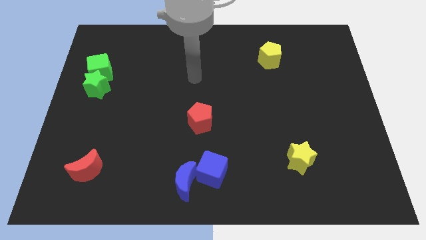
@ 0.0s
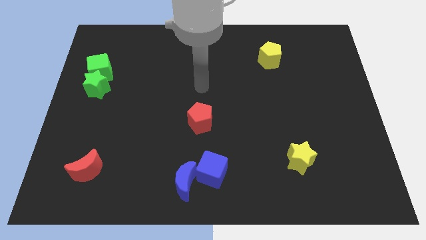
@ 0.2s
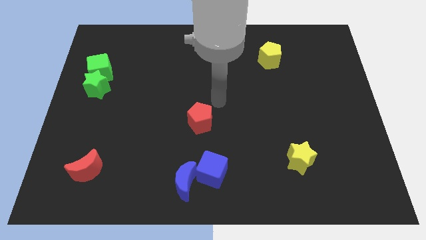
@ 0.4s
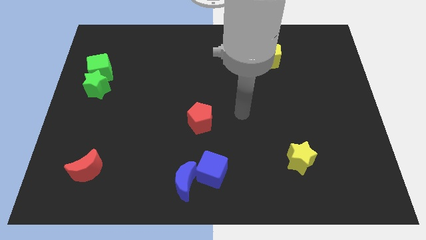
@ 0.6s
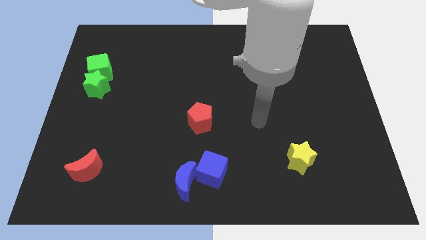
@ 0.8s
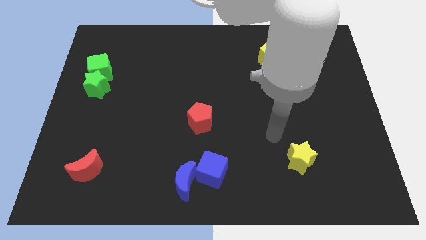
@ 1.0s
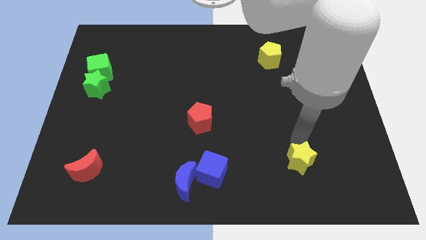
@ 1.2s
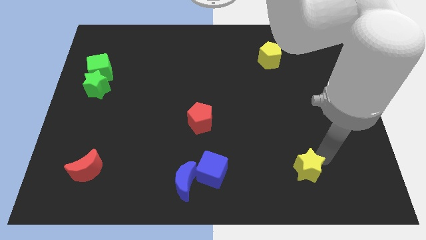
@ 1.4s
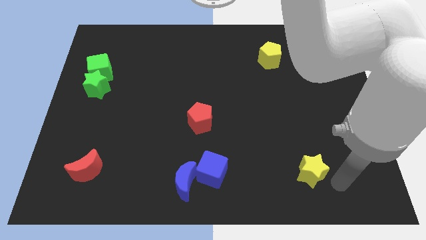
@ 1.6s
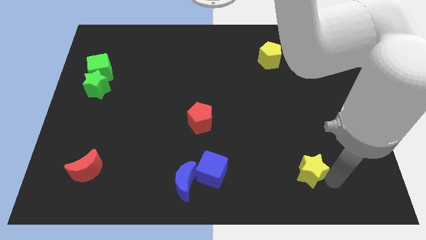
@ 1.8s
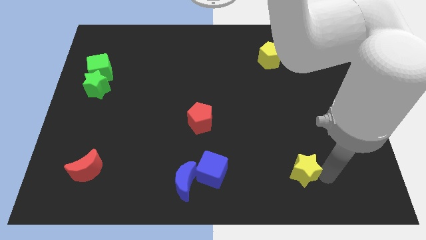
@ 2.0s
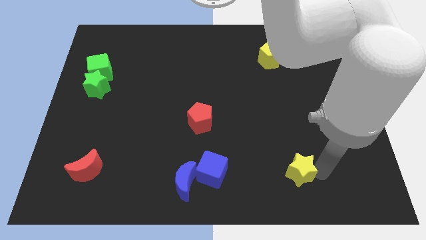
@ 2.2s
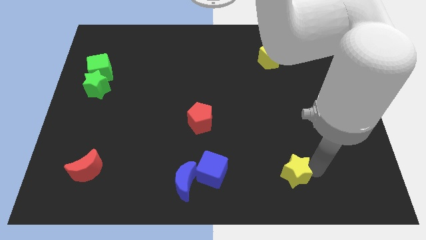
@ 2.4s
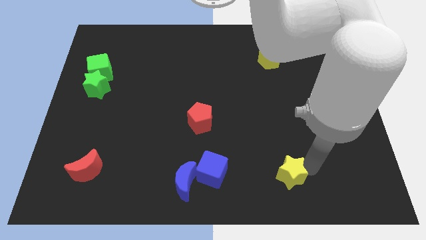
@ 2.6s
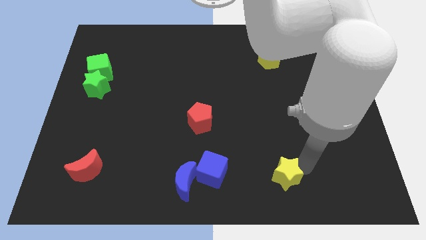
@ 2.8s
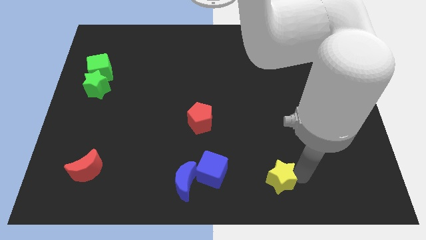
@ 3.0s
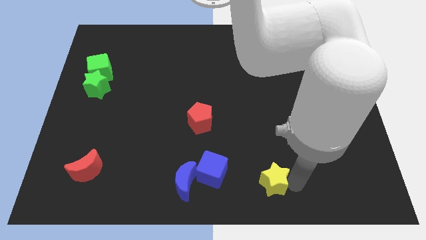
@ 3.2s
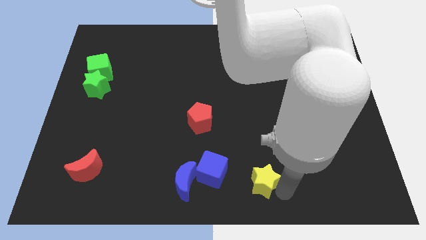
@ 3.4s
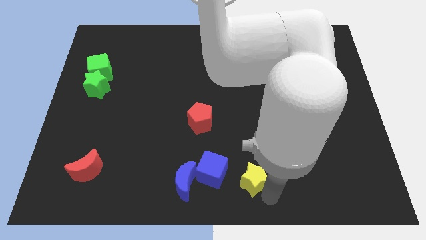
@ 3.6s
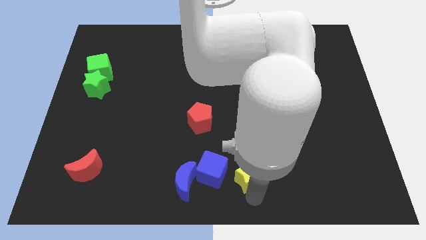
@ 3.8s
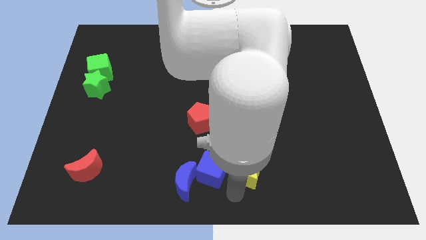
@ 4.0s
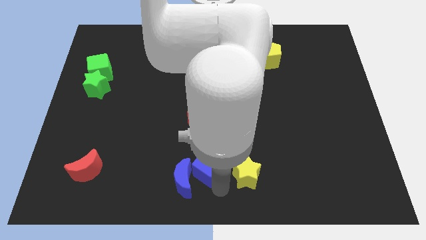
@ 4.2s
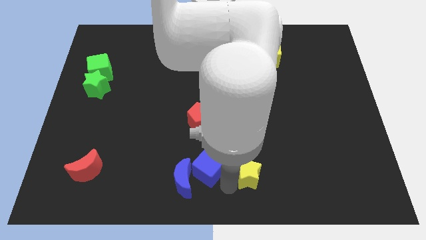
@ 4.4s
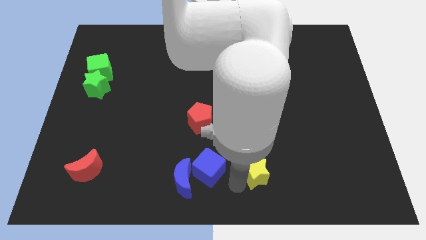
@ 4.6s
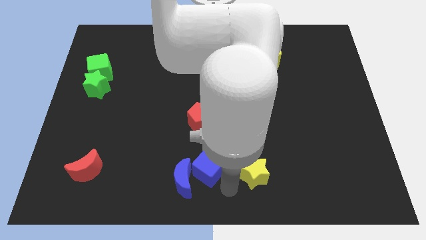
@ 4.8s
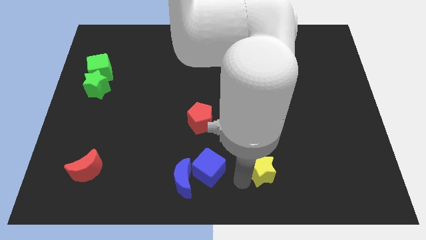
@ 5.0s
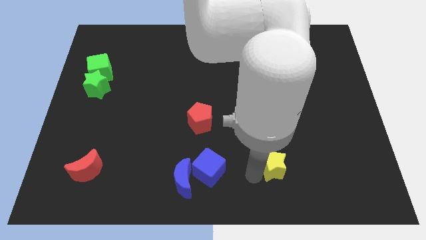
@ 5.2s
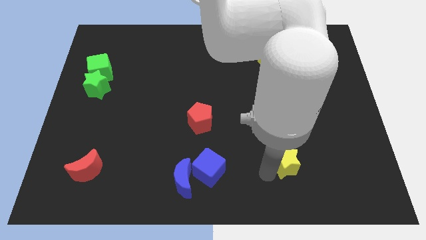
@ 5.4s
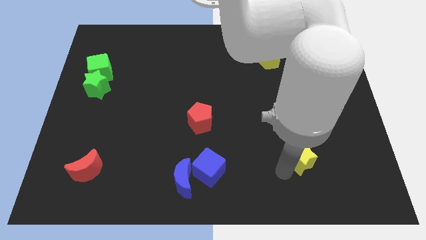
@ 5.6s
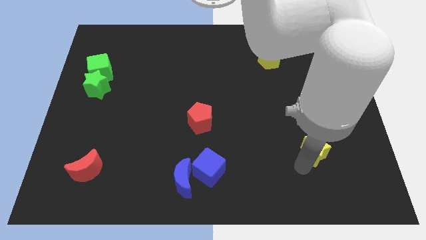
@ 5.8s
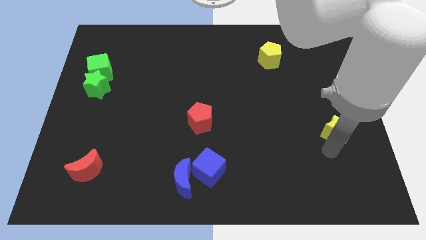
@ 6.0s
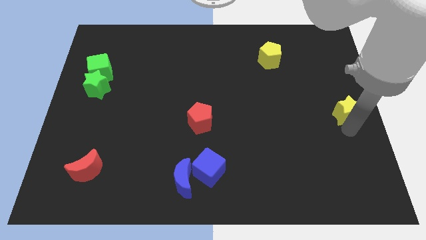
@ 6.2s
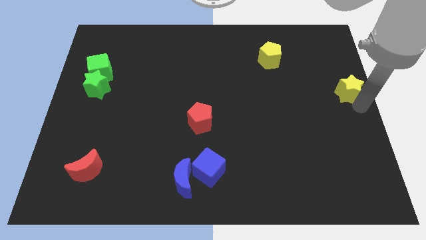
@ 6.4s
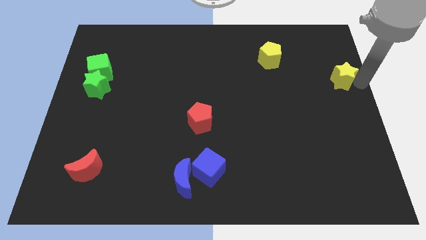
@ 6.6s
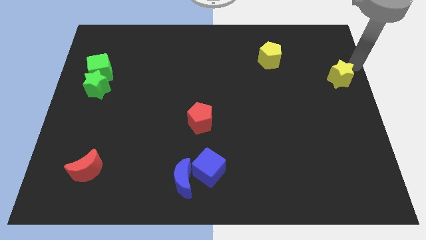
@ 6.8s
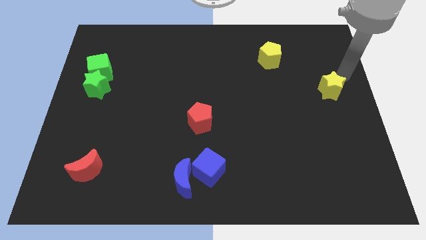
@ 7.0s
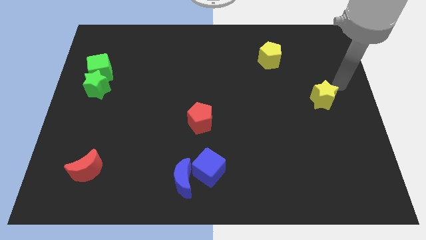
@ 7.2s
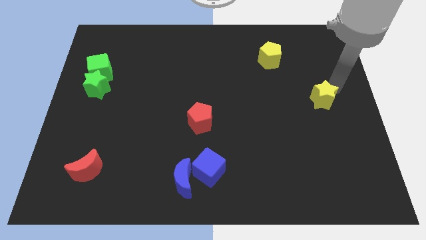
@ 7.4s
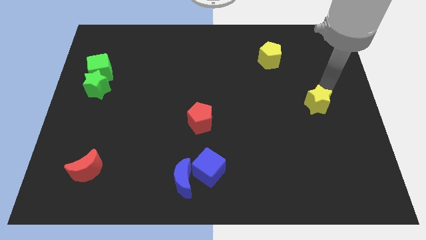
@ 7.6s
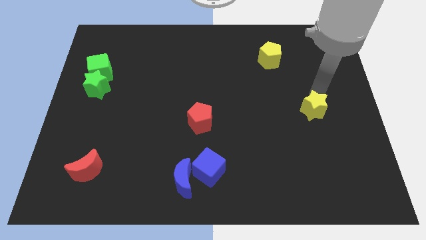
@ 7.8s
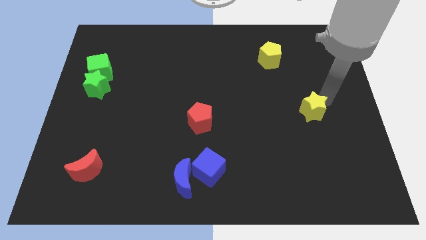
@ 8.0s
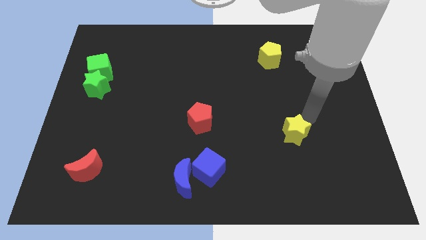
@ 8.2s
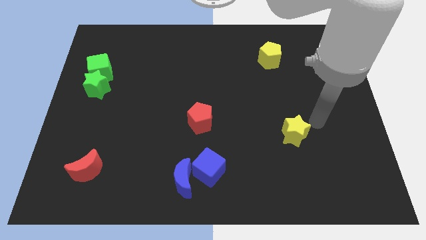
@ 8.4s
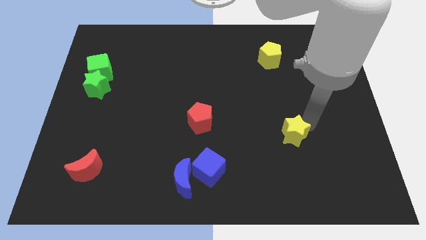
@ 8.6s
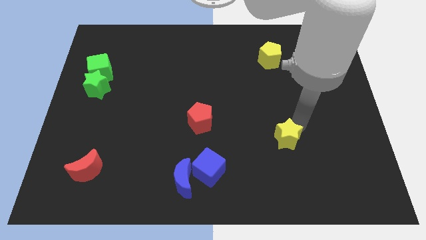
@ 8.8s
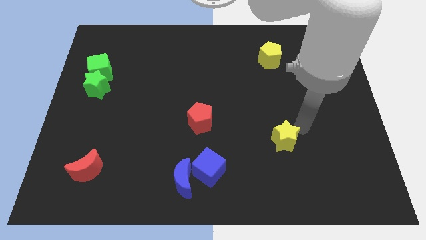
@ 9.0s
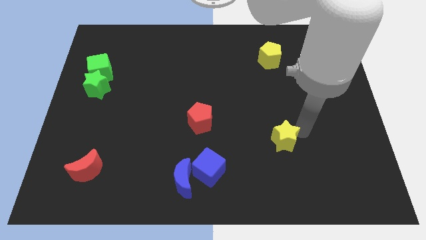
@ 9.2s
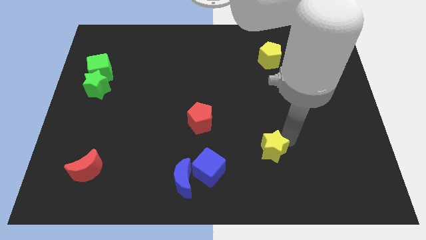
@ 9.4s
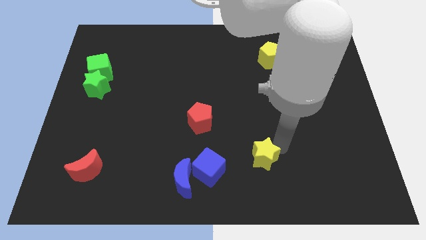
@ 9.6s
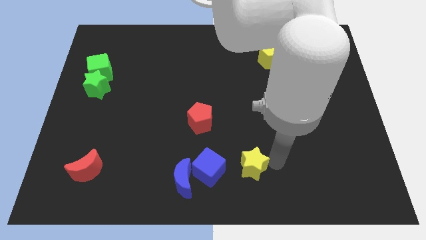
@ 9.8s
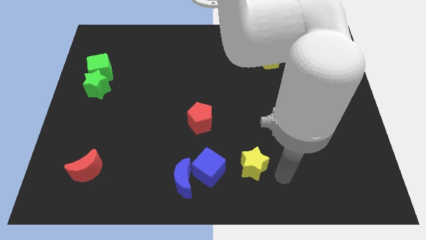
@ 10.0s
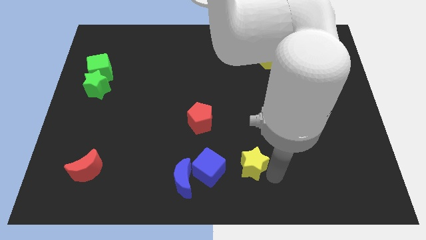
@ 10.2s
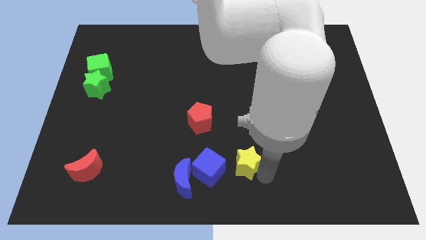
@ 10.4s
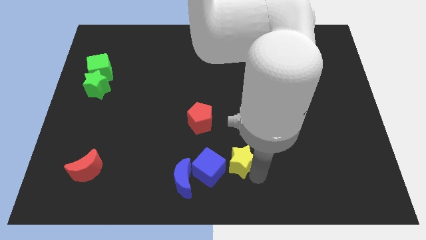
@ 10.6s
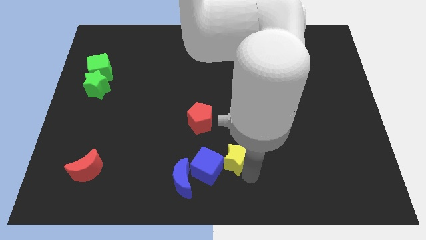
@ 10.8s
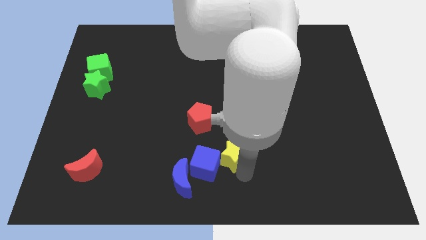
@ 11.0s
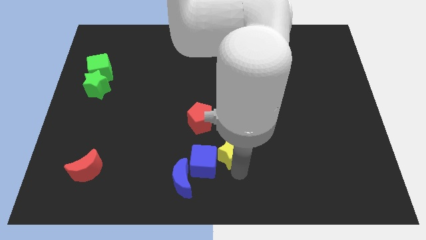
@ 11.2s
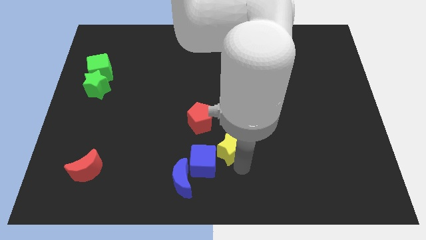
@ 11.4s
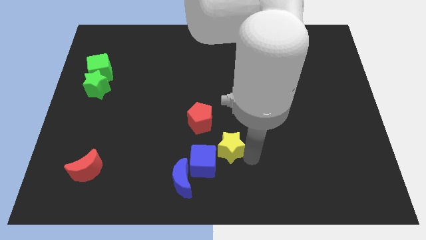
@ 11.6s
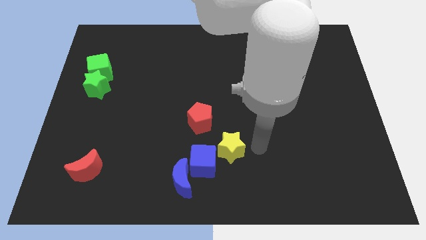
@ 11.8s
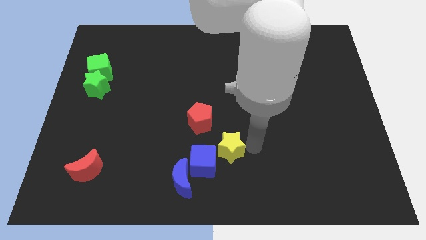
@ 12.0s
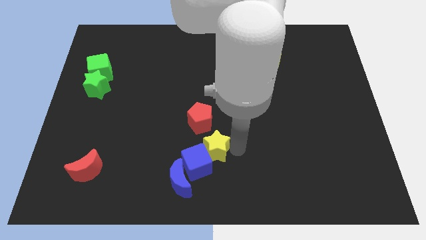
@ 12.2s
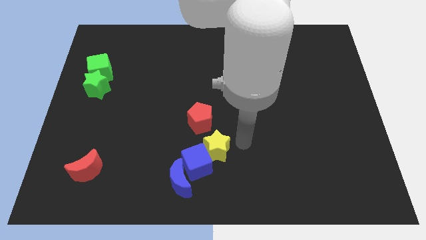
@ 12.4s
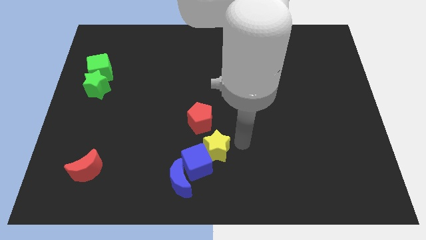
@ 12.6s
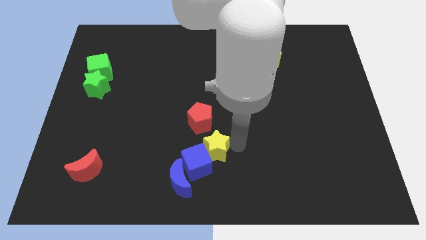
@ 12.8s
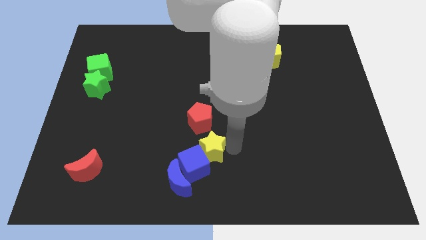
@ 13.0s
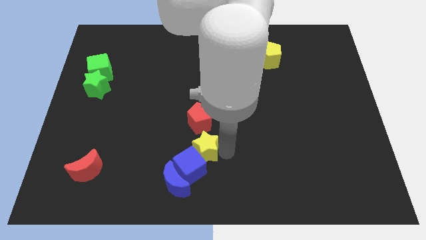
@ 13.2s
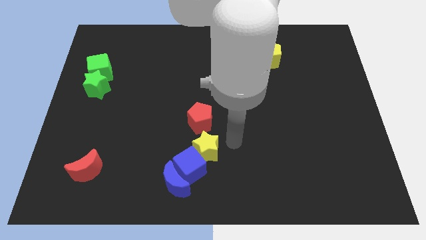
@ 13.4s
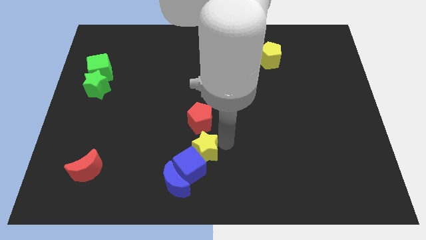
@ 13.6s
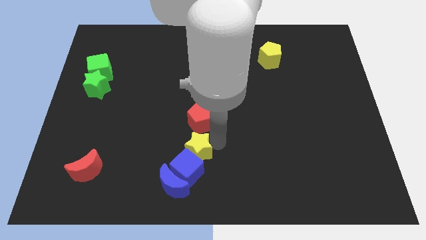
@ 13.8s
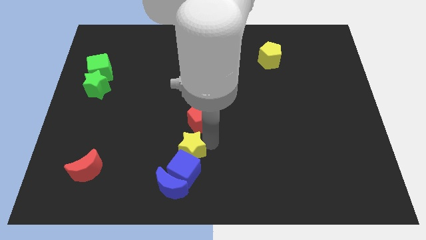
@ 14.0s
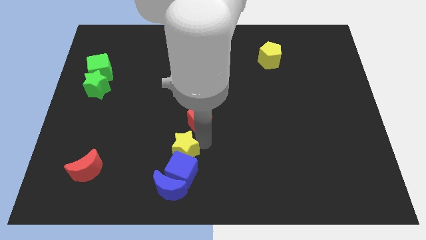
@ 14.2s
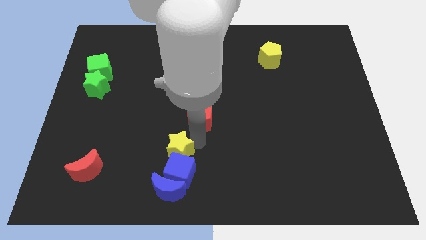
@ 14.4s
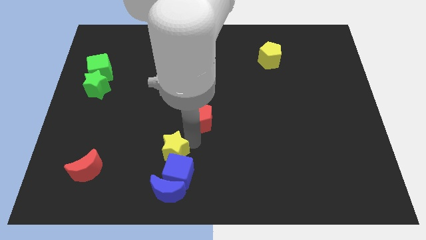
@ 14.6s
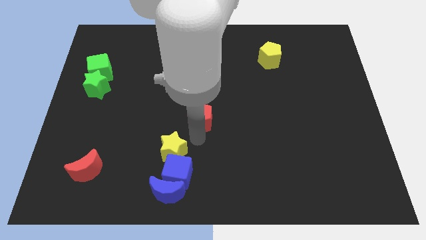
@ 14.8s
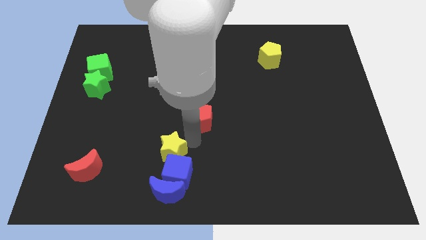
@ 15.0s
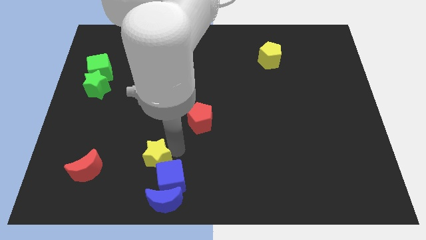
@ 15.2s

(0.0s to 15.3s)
put the yellow star just right of the red moon

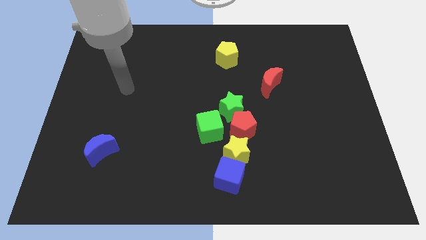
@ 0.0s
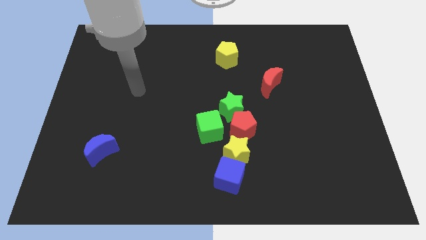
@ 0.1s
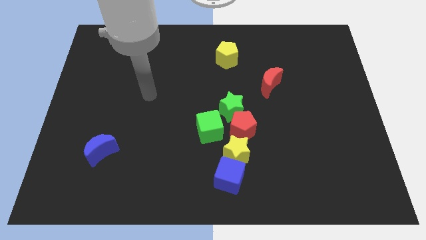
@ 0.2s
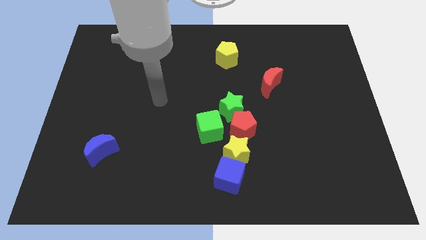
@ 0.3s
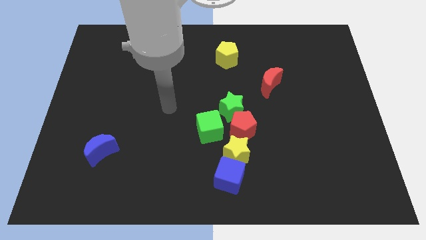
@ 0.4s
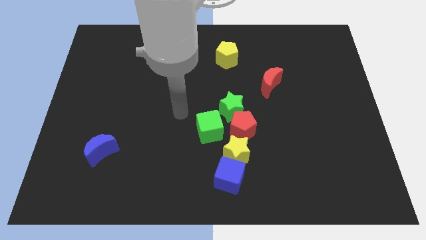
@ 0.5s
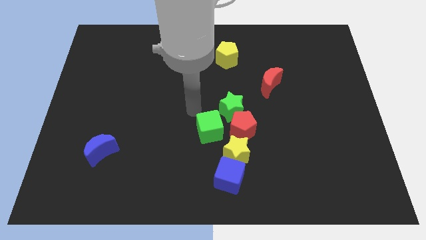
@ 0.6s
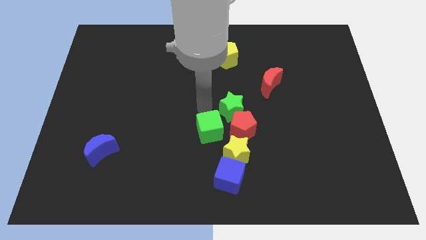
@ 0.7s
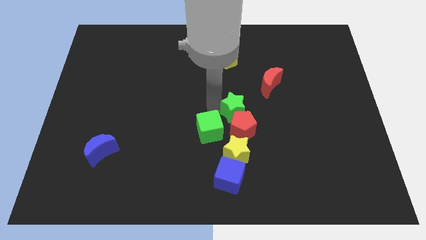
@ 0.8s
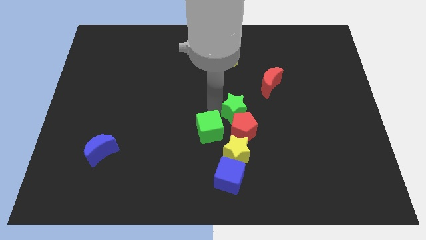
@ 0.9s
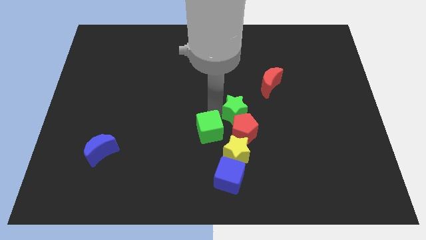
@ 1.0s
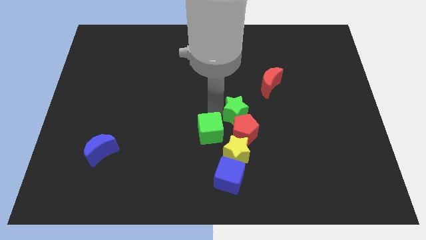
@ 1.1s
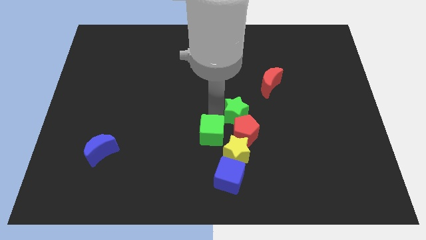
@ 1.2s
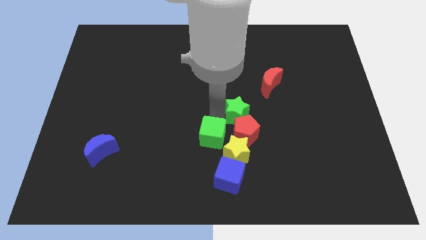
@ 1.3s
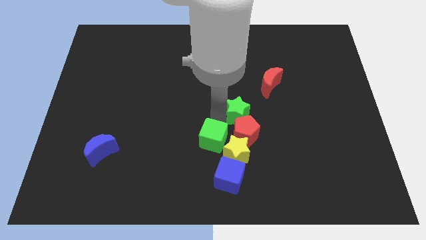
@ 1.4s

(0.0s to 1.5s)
push the green cube diagonally up and to the left of the blue cube
